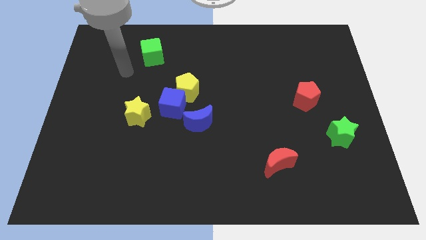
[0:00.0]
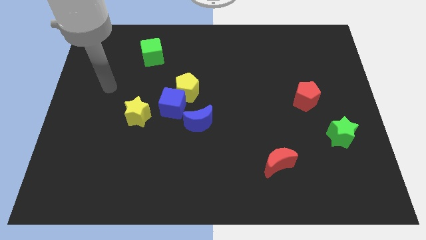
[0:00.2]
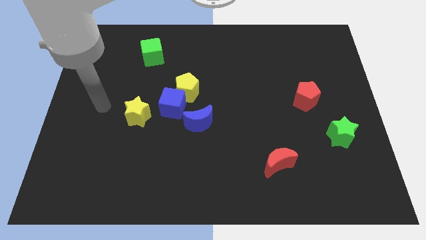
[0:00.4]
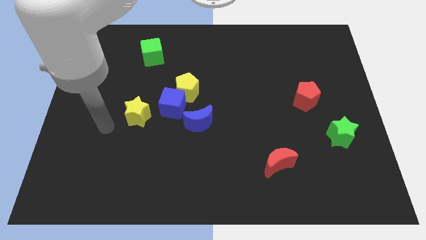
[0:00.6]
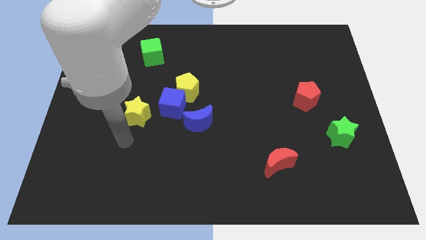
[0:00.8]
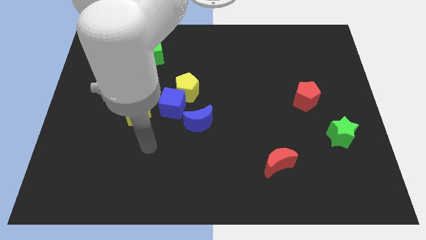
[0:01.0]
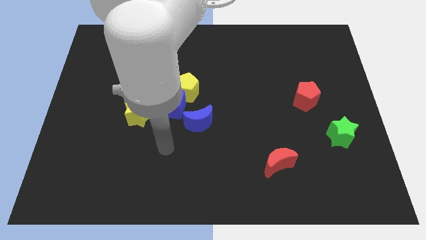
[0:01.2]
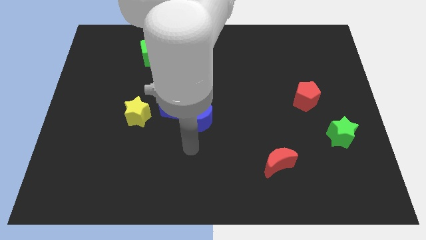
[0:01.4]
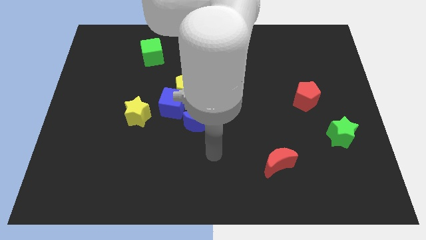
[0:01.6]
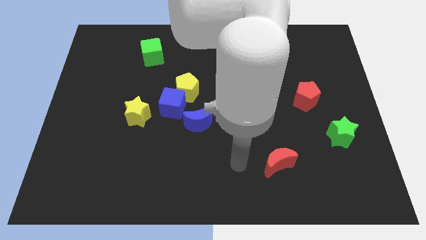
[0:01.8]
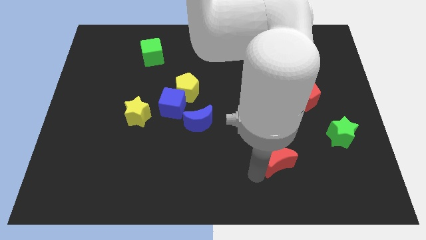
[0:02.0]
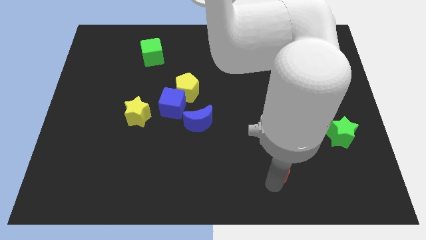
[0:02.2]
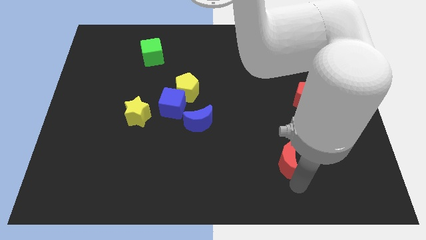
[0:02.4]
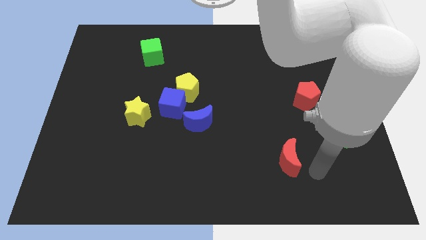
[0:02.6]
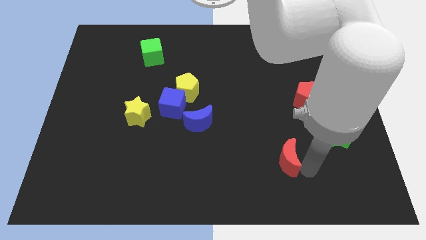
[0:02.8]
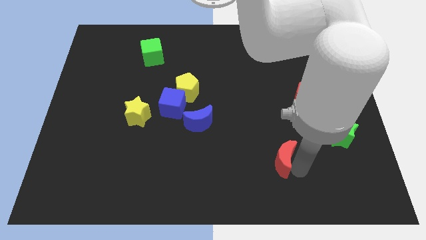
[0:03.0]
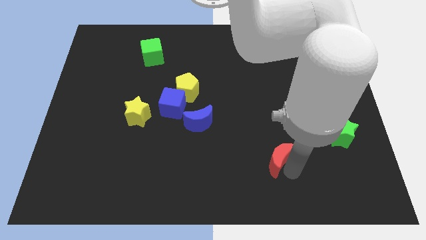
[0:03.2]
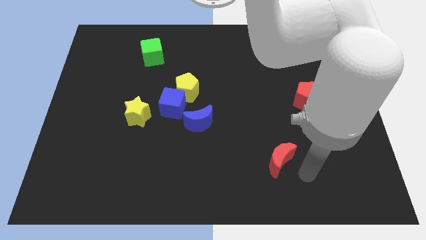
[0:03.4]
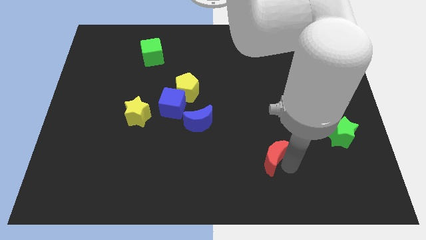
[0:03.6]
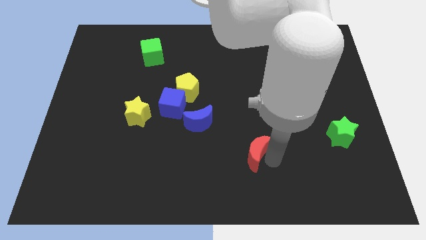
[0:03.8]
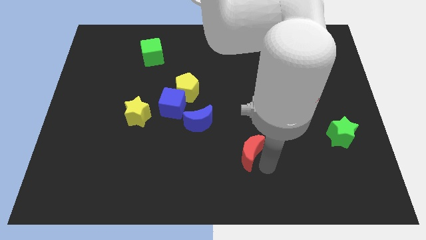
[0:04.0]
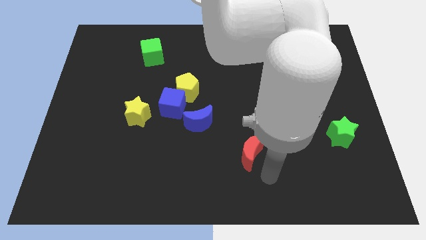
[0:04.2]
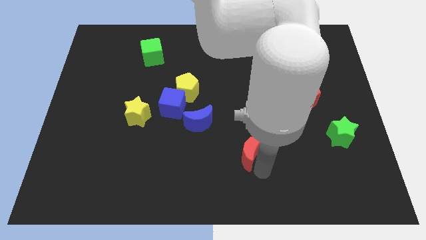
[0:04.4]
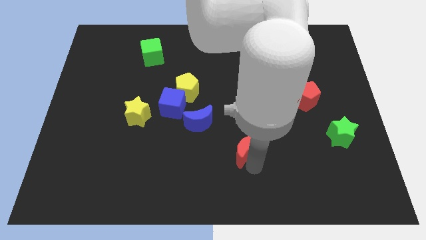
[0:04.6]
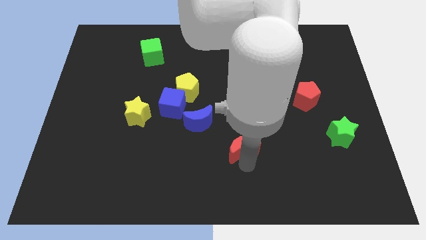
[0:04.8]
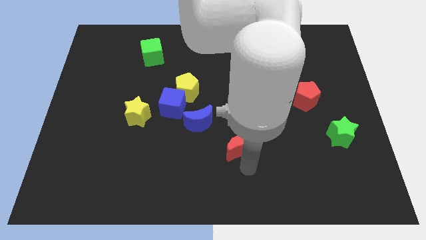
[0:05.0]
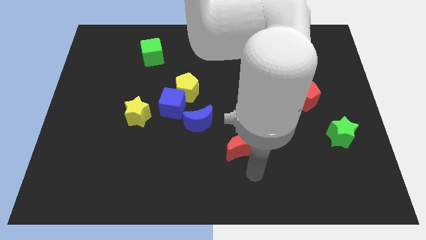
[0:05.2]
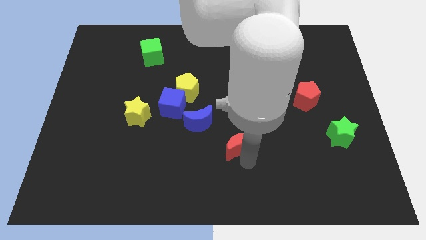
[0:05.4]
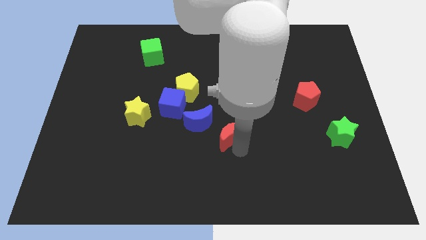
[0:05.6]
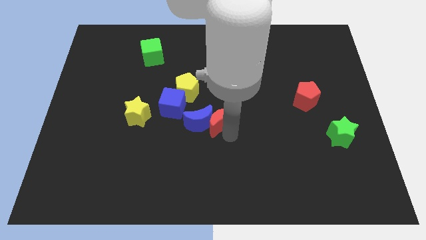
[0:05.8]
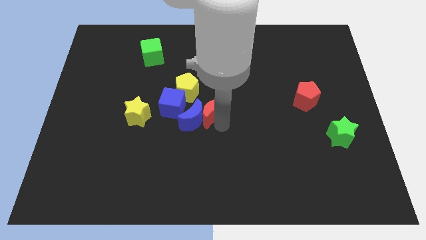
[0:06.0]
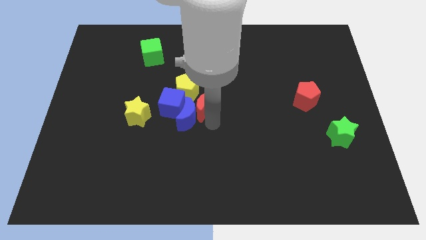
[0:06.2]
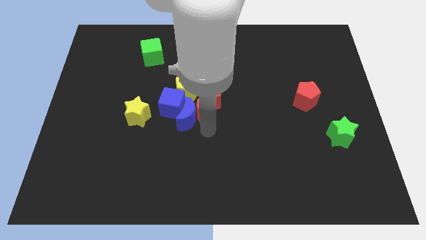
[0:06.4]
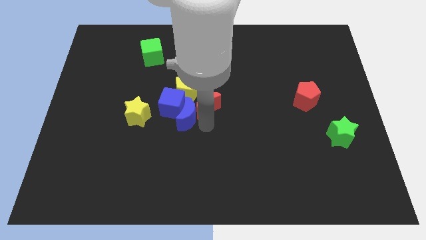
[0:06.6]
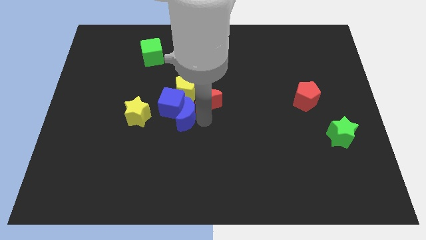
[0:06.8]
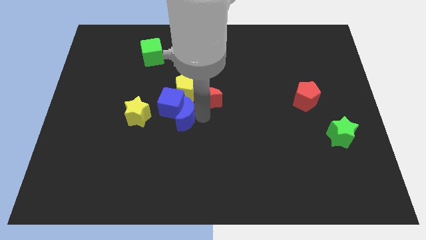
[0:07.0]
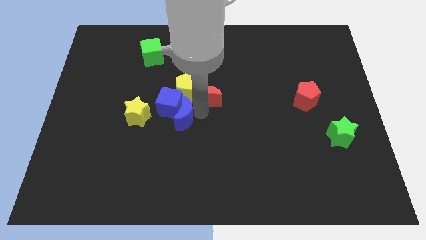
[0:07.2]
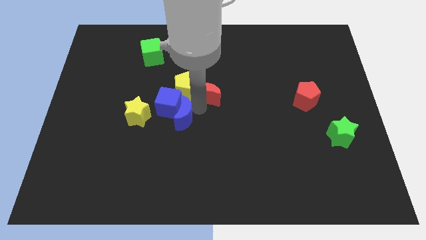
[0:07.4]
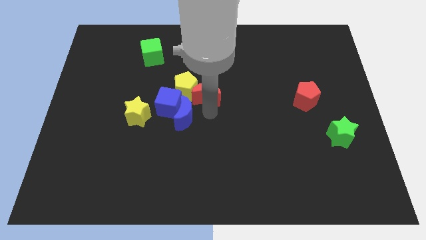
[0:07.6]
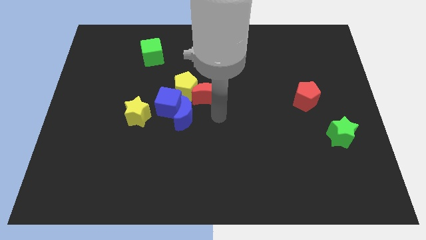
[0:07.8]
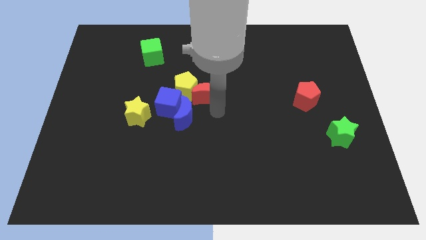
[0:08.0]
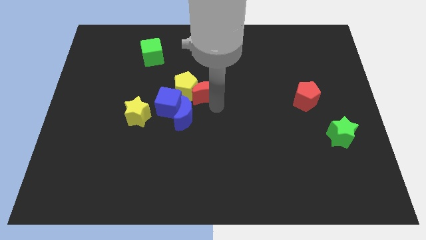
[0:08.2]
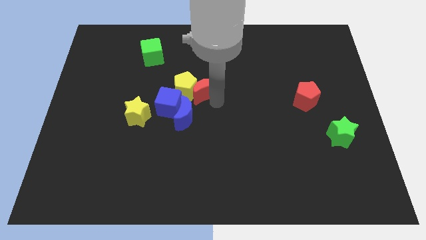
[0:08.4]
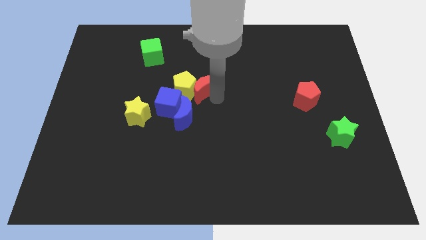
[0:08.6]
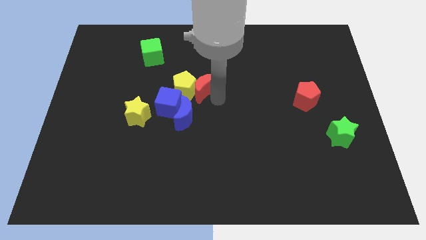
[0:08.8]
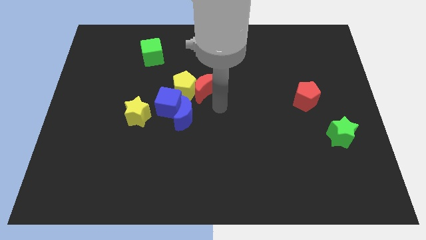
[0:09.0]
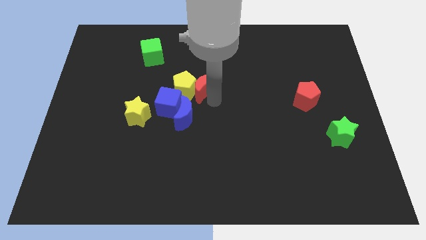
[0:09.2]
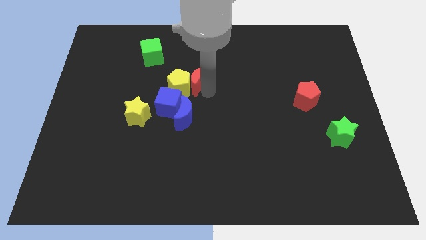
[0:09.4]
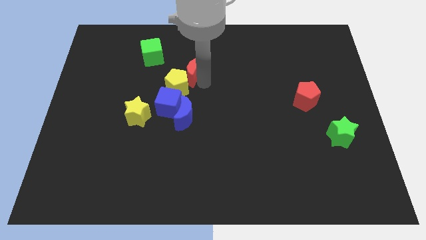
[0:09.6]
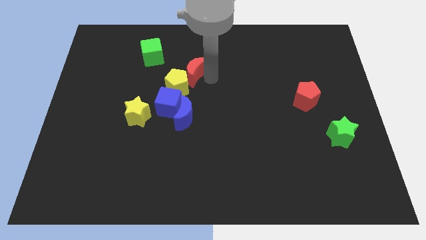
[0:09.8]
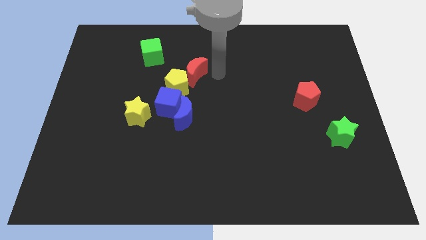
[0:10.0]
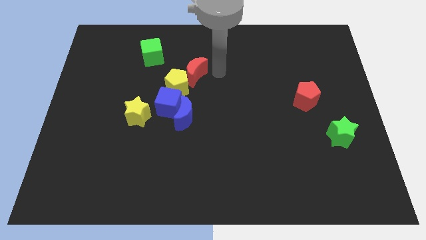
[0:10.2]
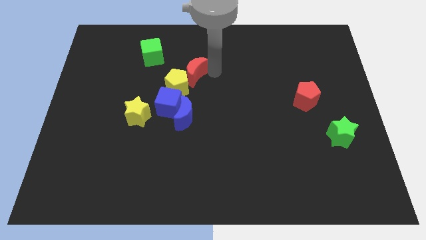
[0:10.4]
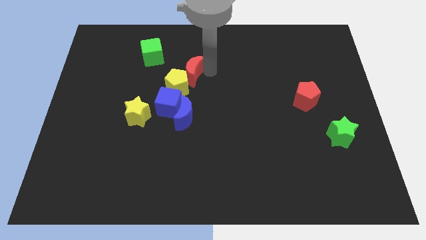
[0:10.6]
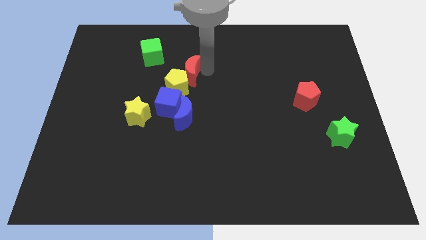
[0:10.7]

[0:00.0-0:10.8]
push the red moon diagonally down and to the right of the green cube

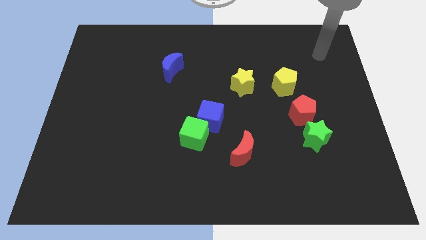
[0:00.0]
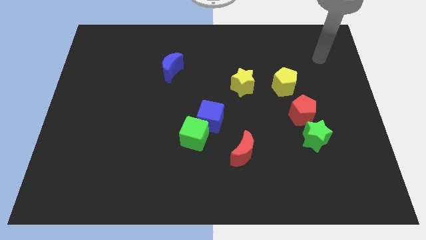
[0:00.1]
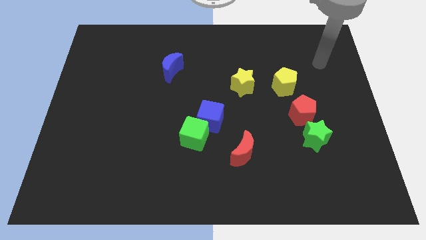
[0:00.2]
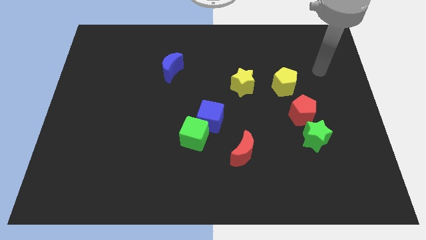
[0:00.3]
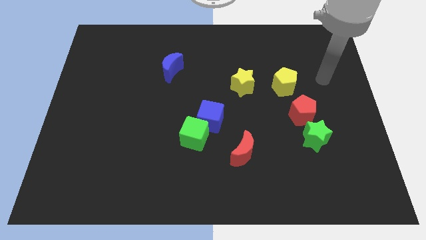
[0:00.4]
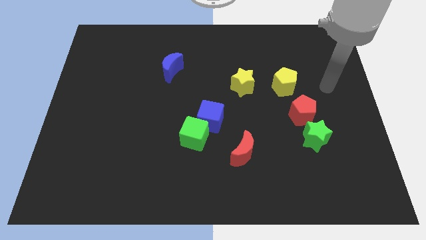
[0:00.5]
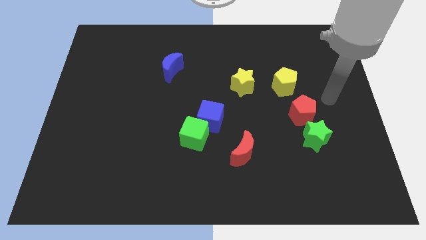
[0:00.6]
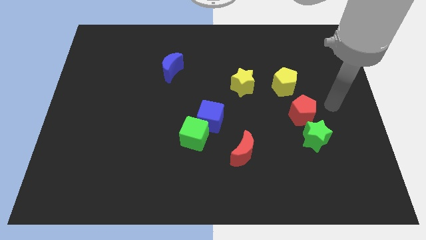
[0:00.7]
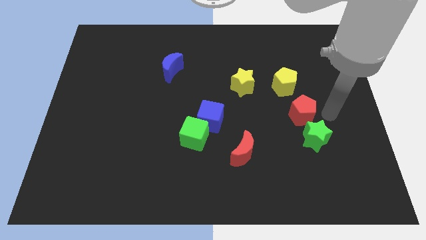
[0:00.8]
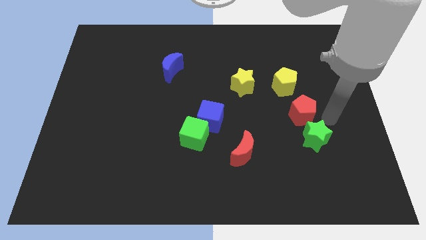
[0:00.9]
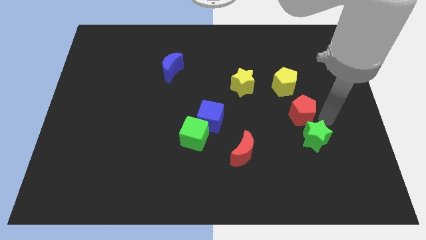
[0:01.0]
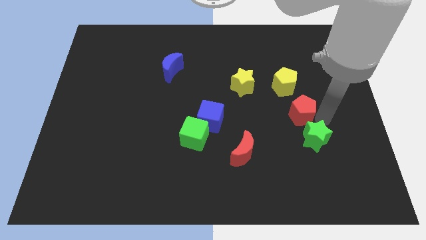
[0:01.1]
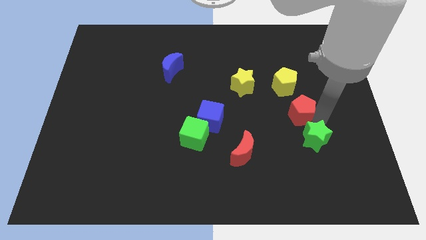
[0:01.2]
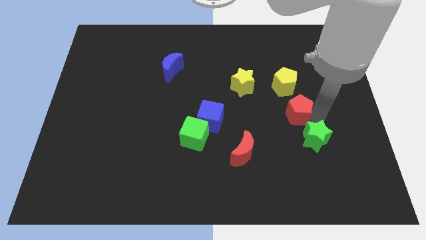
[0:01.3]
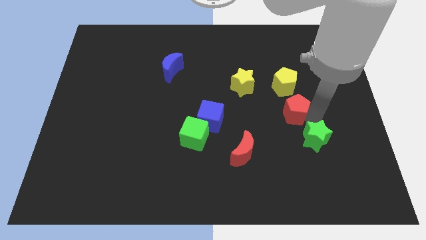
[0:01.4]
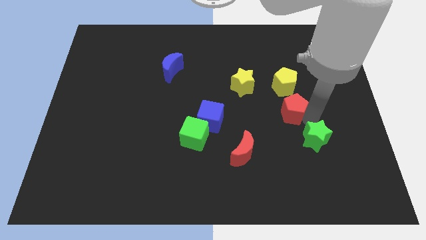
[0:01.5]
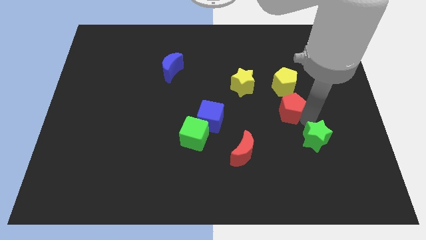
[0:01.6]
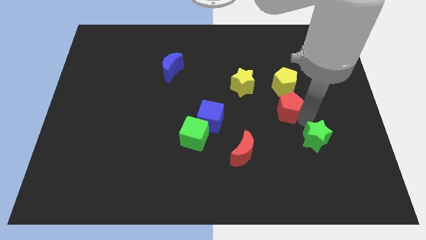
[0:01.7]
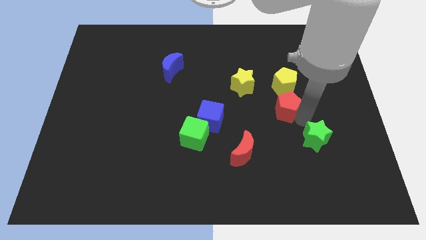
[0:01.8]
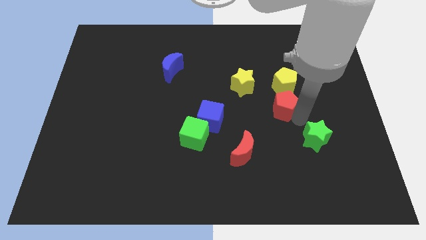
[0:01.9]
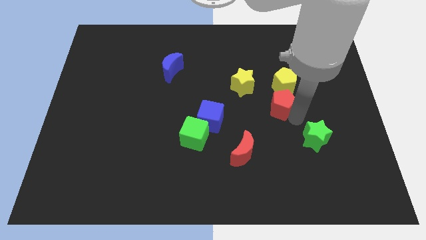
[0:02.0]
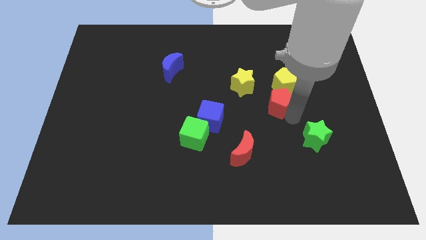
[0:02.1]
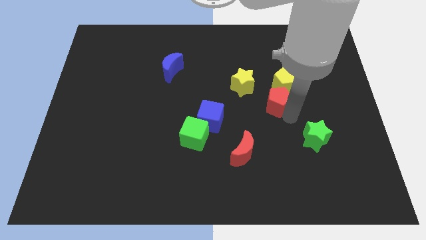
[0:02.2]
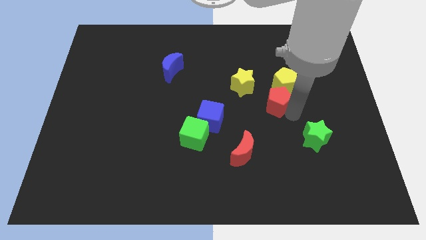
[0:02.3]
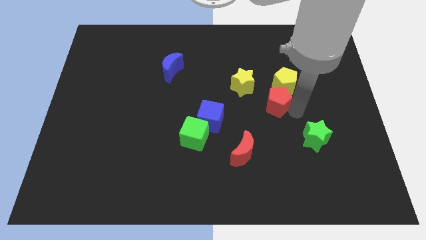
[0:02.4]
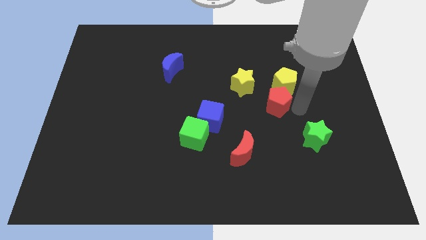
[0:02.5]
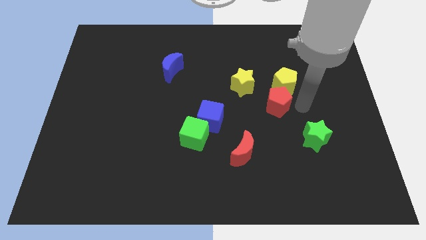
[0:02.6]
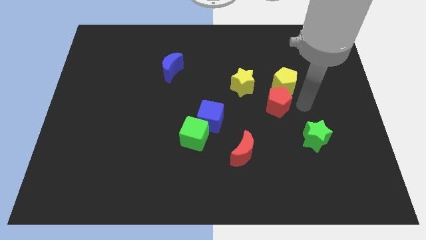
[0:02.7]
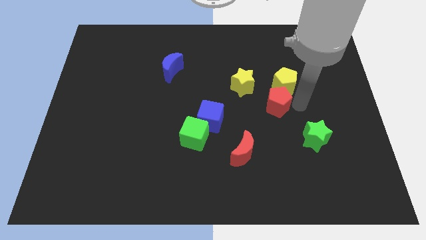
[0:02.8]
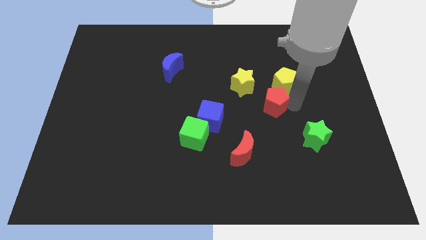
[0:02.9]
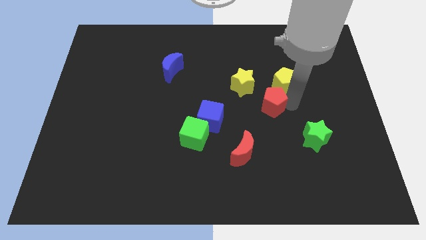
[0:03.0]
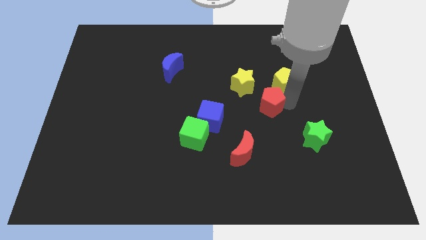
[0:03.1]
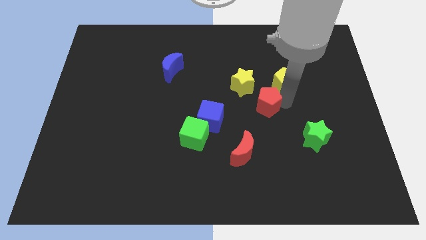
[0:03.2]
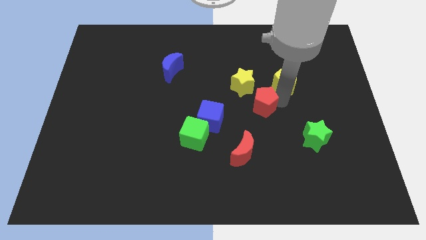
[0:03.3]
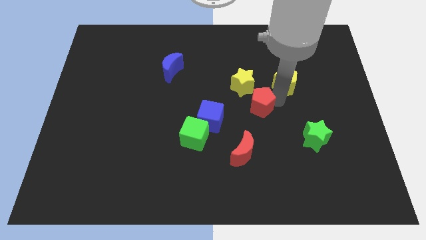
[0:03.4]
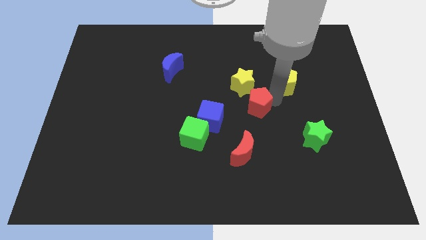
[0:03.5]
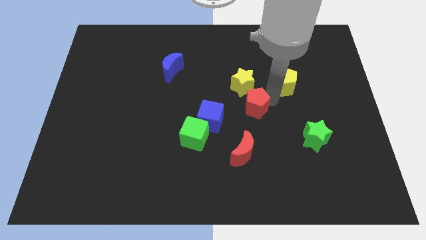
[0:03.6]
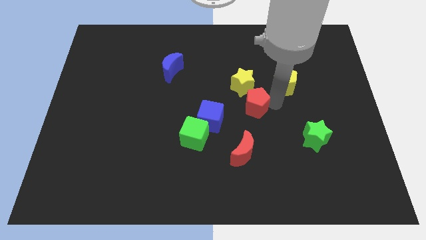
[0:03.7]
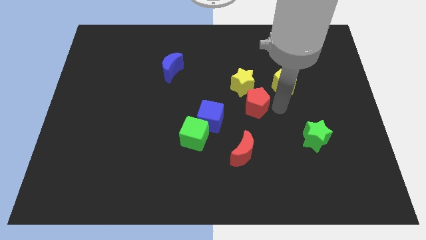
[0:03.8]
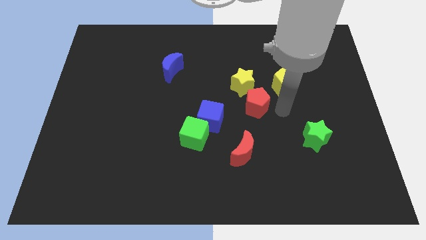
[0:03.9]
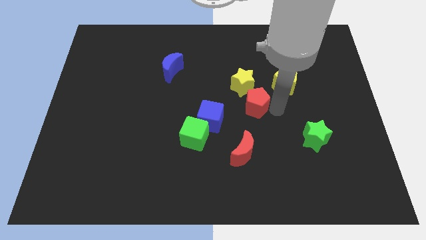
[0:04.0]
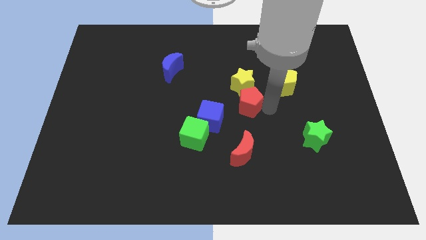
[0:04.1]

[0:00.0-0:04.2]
push the red pentagon diagonally up and to the right of the blue cube
